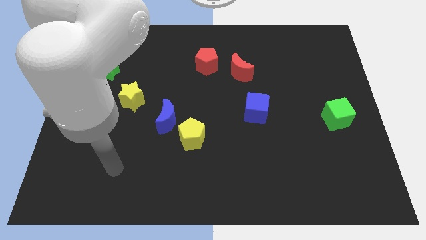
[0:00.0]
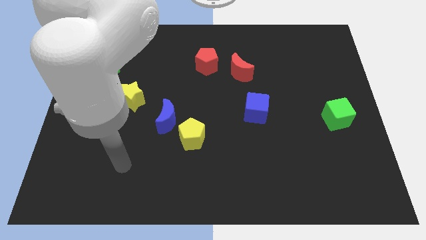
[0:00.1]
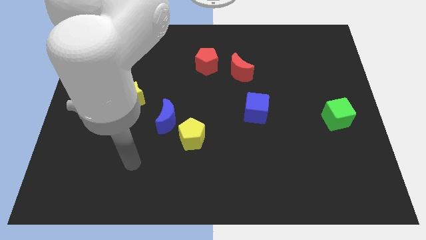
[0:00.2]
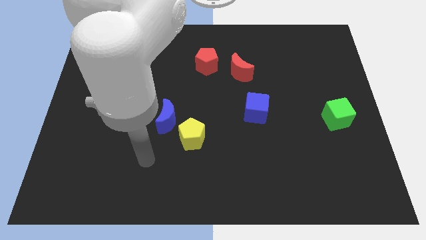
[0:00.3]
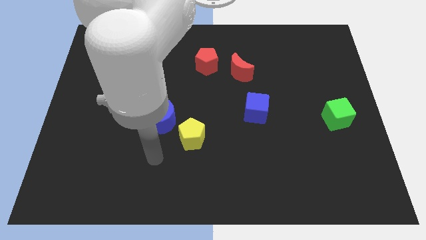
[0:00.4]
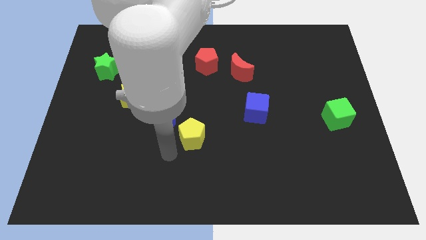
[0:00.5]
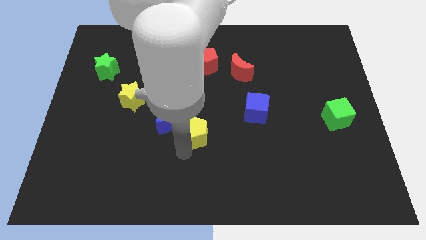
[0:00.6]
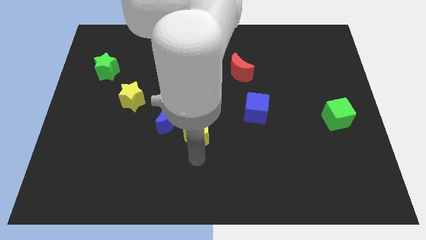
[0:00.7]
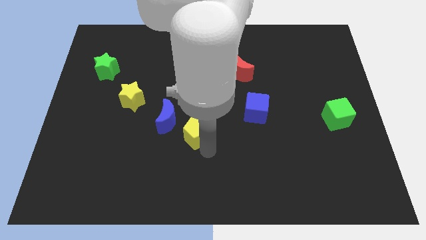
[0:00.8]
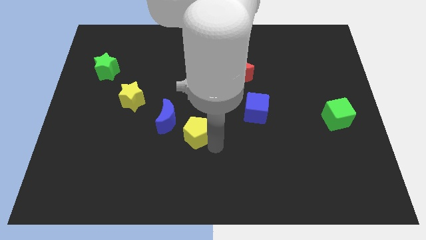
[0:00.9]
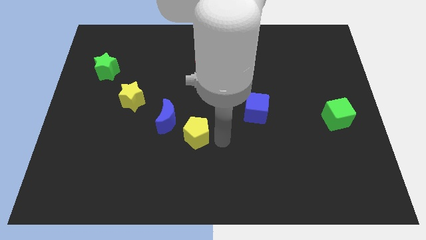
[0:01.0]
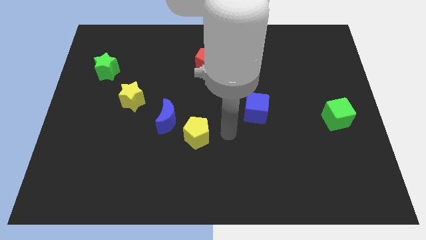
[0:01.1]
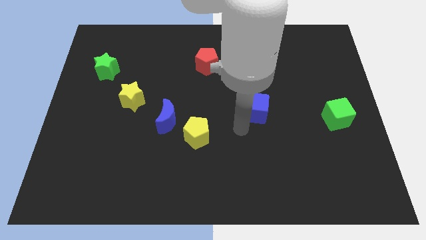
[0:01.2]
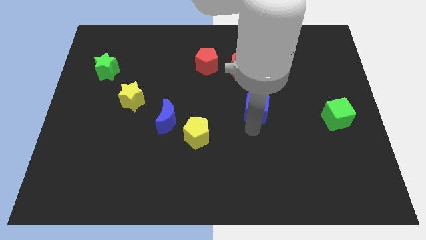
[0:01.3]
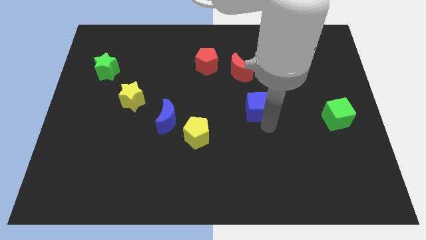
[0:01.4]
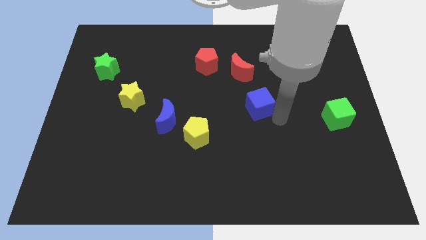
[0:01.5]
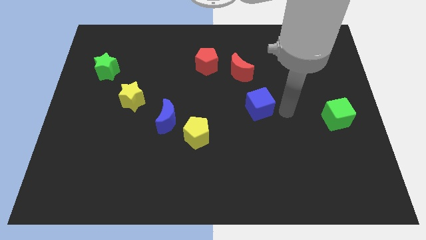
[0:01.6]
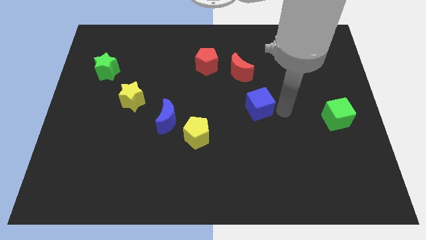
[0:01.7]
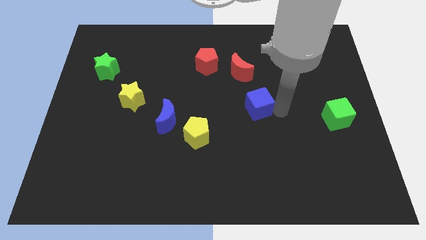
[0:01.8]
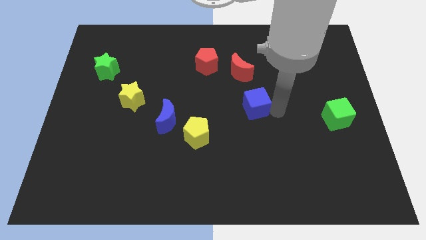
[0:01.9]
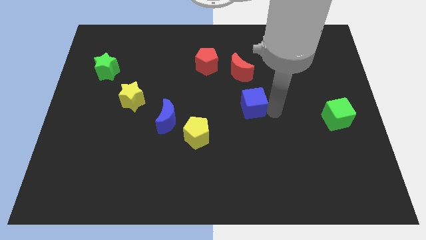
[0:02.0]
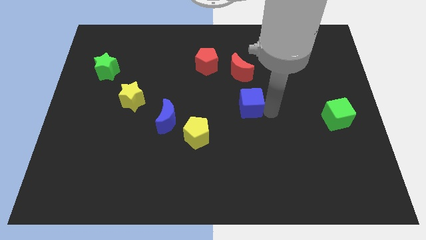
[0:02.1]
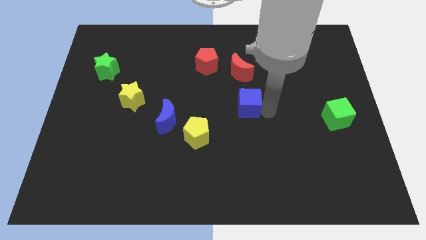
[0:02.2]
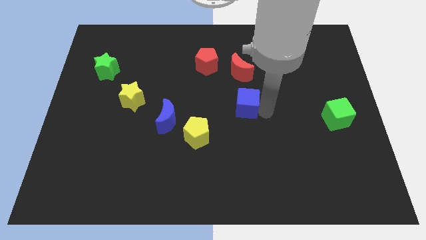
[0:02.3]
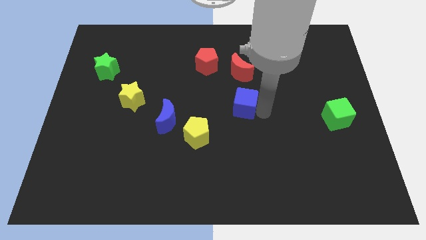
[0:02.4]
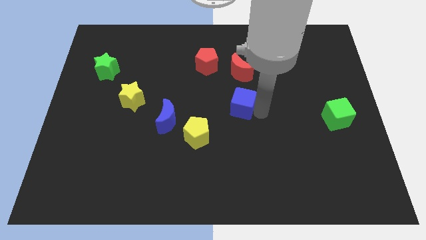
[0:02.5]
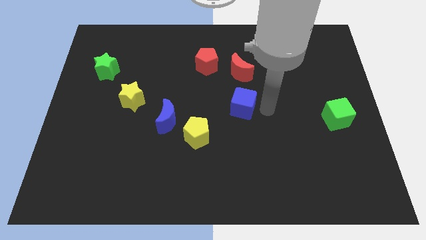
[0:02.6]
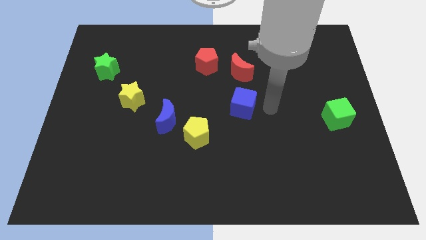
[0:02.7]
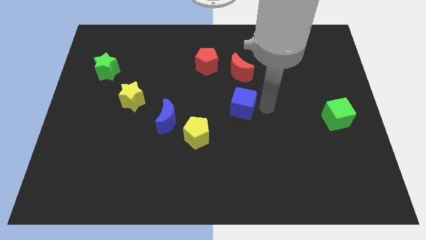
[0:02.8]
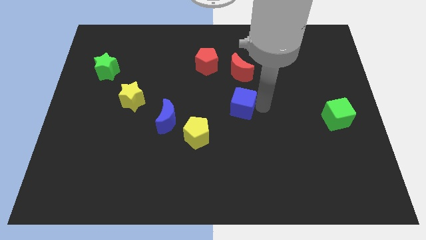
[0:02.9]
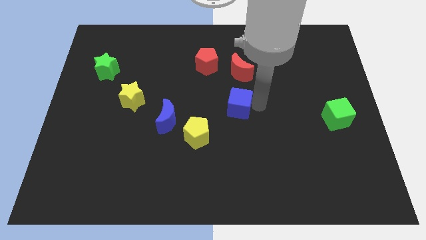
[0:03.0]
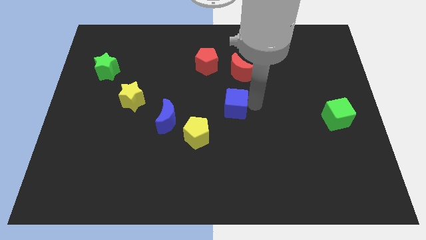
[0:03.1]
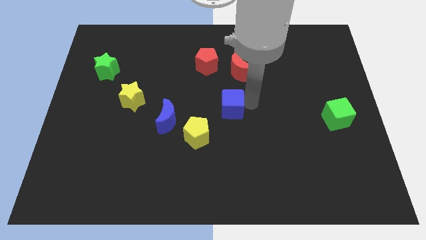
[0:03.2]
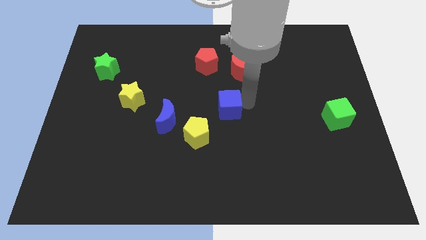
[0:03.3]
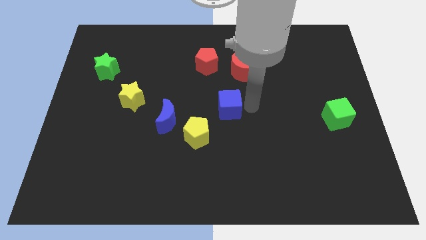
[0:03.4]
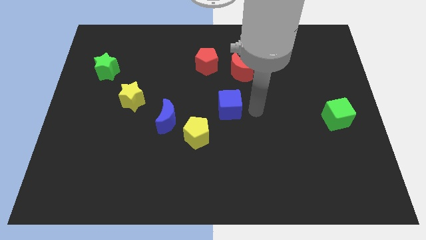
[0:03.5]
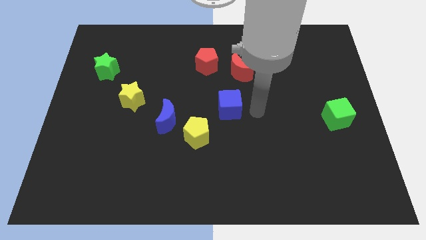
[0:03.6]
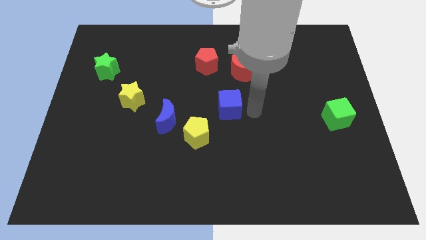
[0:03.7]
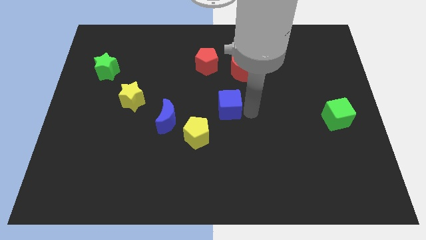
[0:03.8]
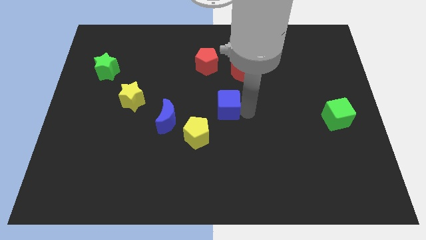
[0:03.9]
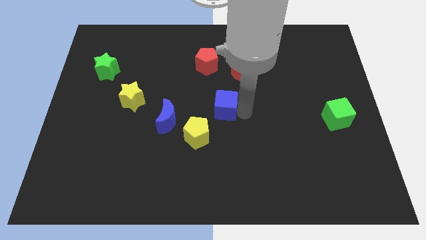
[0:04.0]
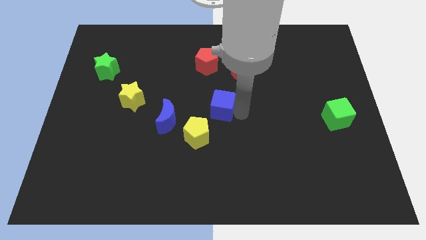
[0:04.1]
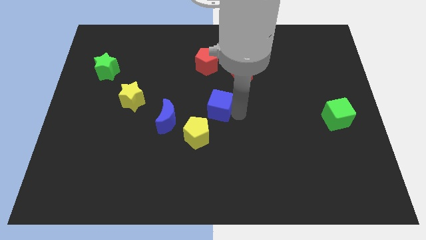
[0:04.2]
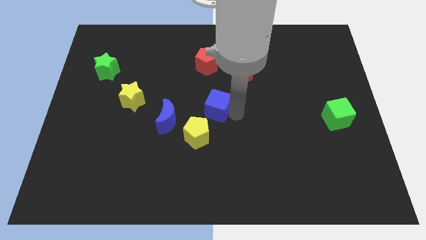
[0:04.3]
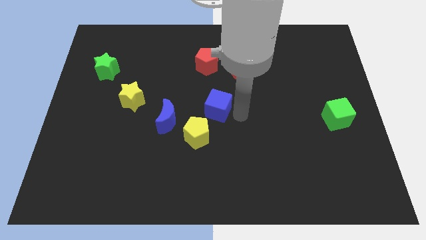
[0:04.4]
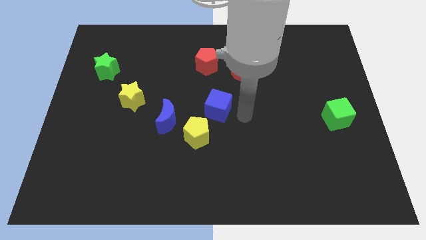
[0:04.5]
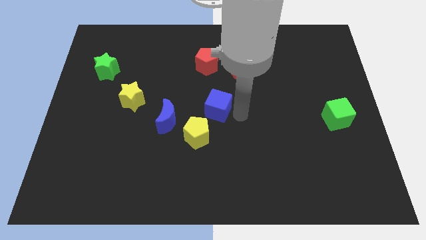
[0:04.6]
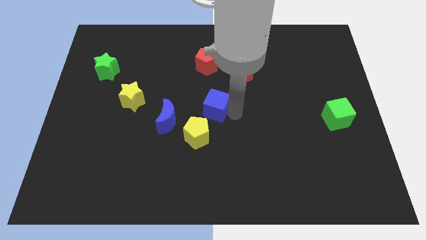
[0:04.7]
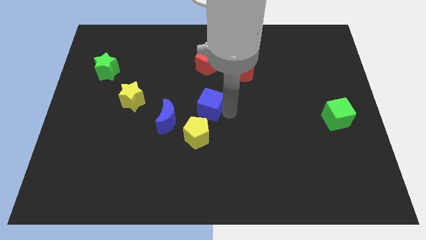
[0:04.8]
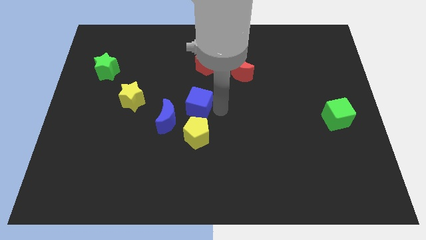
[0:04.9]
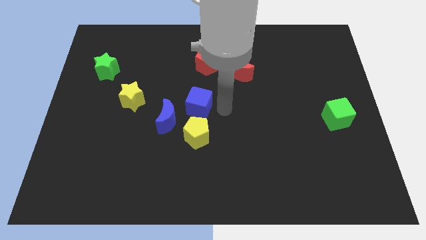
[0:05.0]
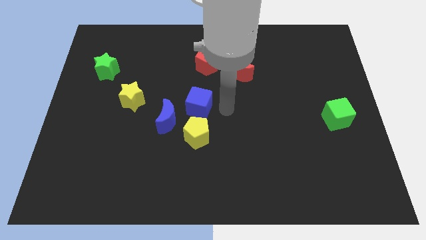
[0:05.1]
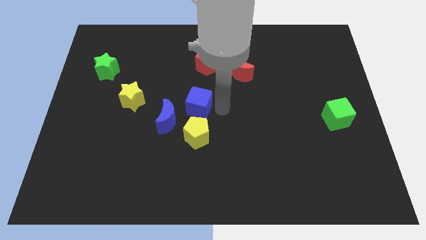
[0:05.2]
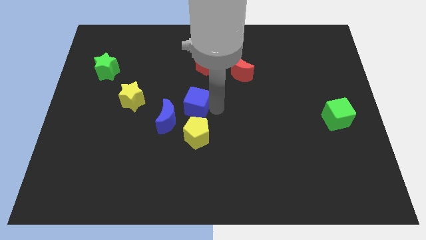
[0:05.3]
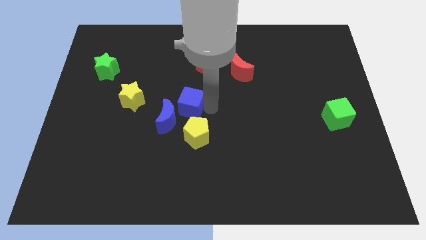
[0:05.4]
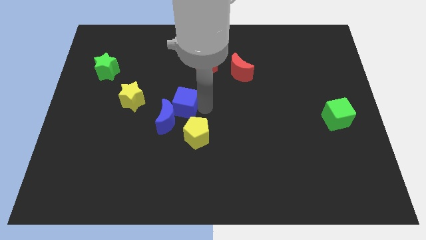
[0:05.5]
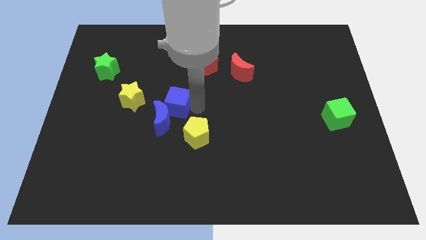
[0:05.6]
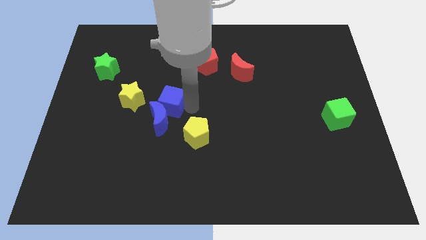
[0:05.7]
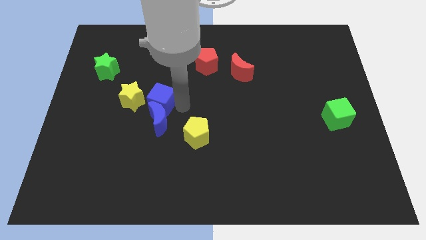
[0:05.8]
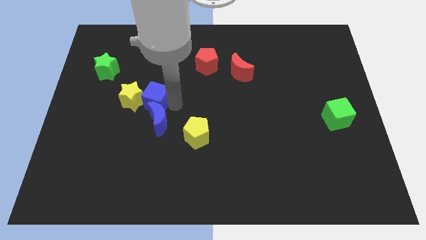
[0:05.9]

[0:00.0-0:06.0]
move the blue cube towards the yellow star

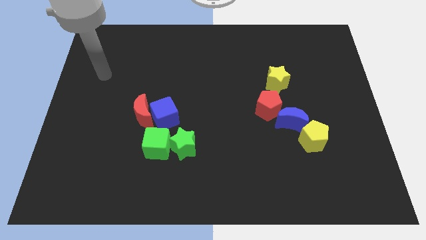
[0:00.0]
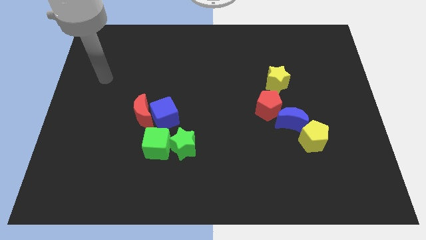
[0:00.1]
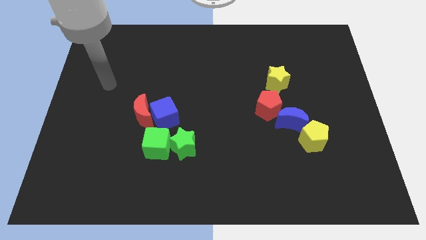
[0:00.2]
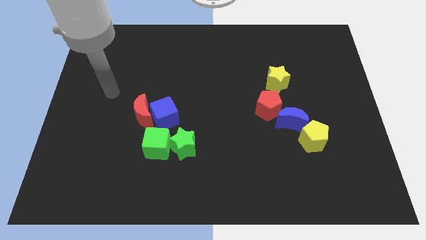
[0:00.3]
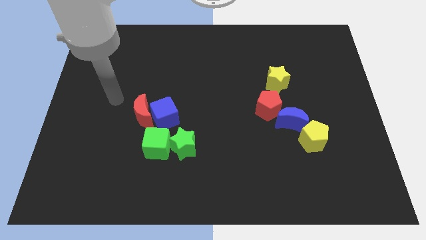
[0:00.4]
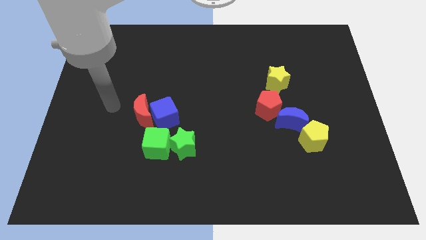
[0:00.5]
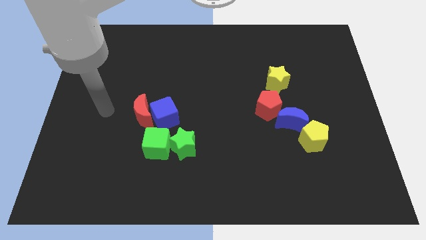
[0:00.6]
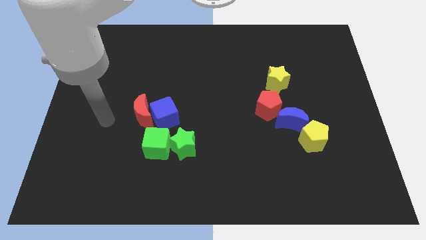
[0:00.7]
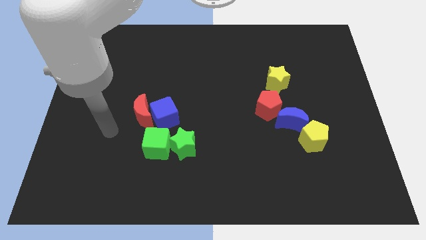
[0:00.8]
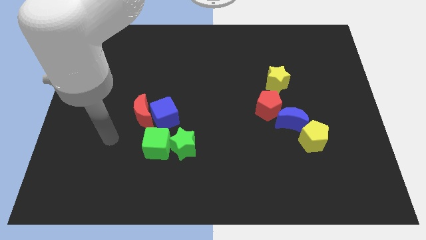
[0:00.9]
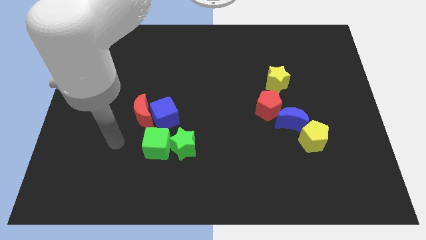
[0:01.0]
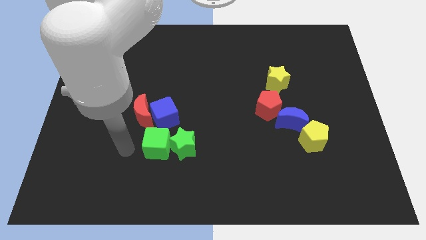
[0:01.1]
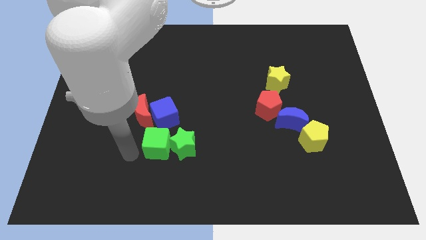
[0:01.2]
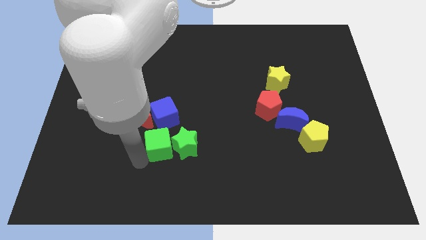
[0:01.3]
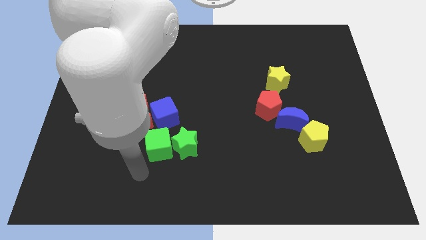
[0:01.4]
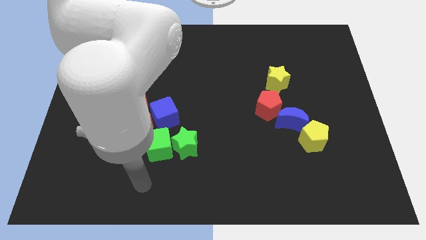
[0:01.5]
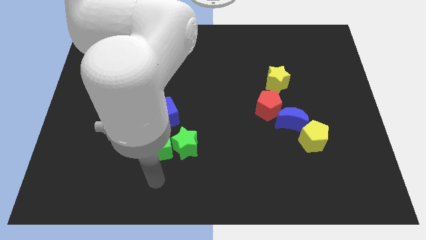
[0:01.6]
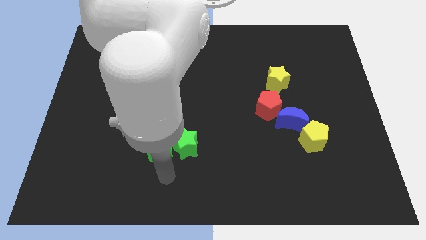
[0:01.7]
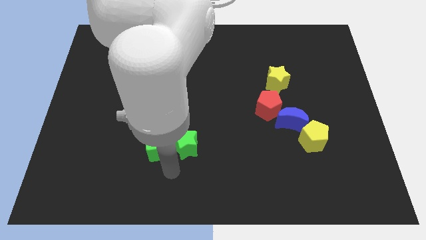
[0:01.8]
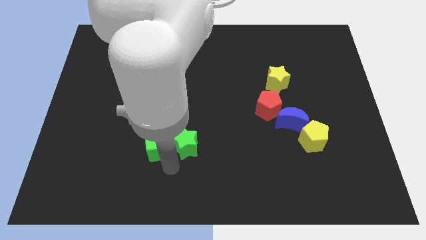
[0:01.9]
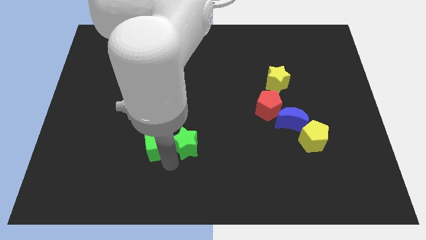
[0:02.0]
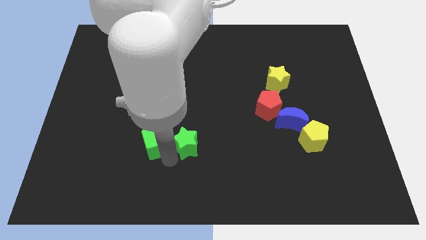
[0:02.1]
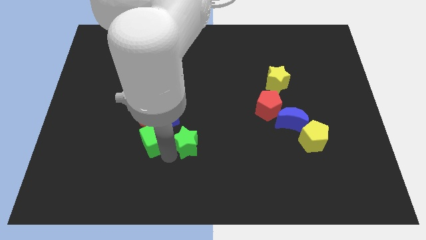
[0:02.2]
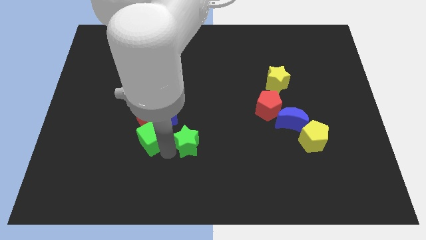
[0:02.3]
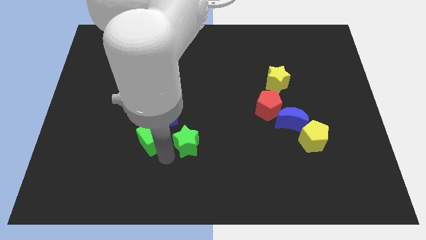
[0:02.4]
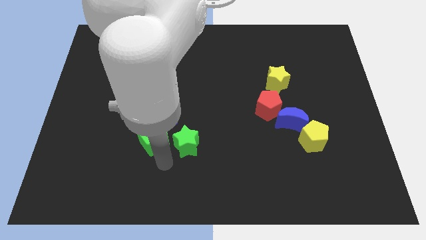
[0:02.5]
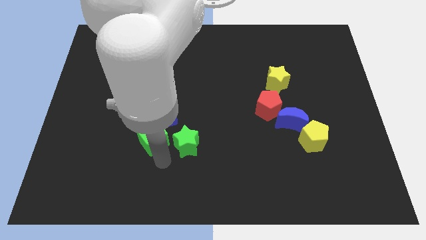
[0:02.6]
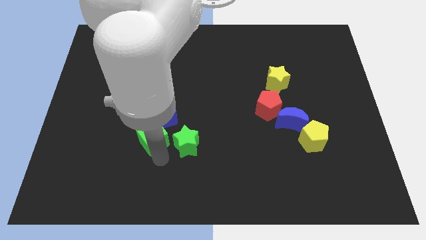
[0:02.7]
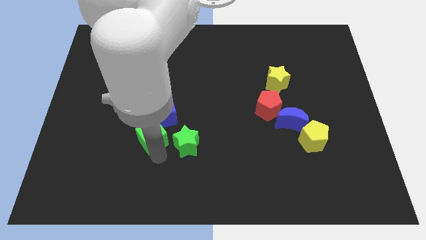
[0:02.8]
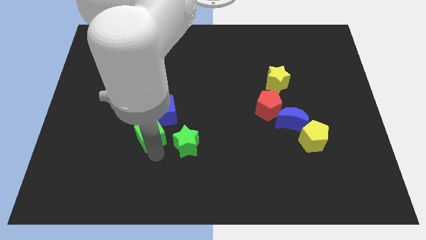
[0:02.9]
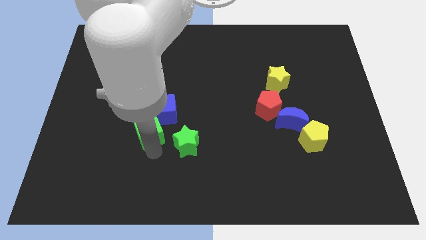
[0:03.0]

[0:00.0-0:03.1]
push the green cube to the red moon
